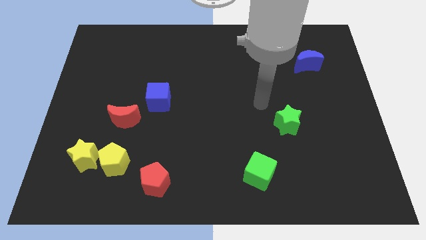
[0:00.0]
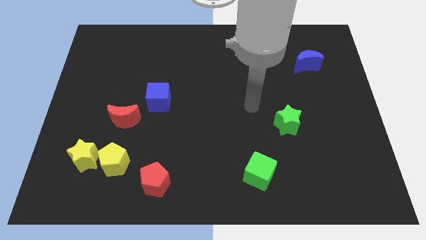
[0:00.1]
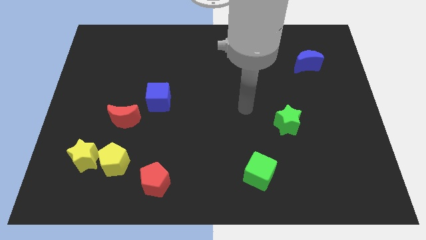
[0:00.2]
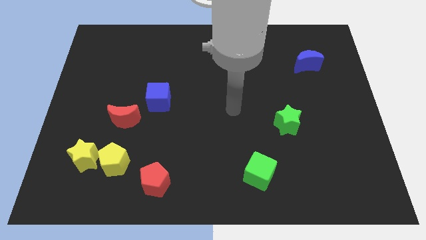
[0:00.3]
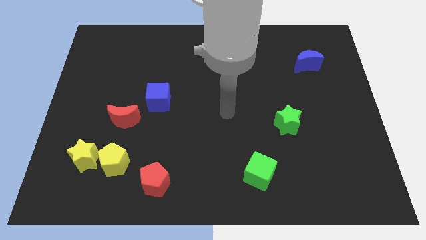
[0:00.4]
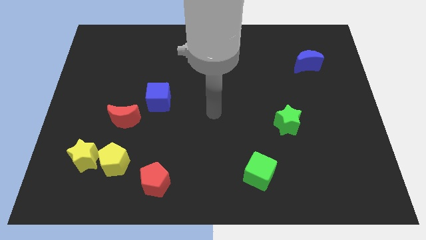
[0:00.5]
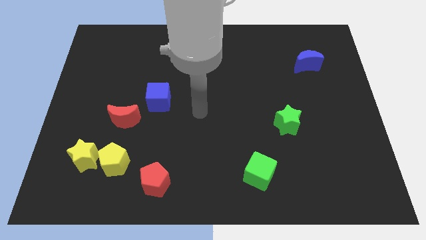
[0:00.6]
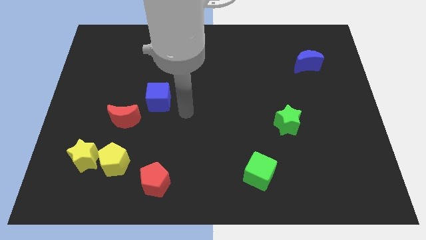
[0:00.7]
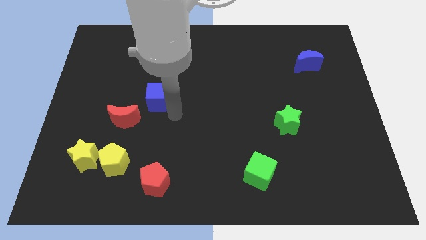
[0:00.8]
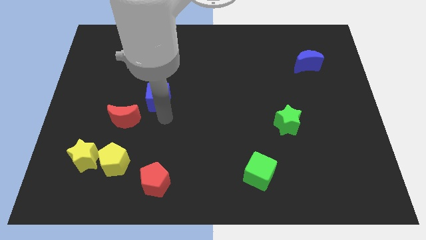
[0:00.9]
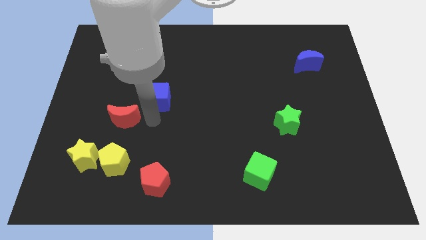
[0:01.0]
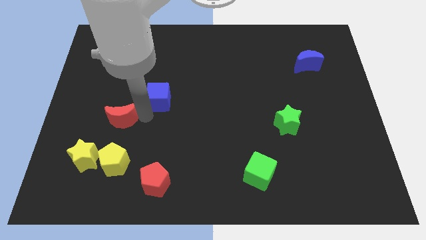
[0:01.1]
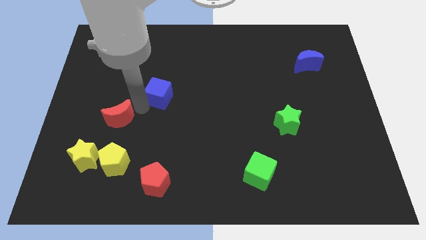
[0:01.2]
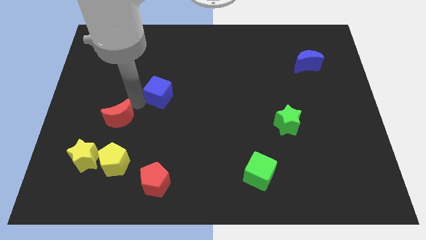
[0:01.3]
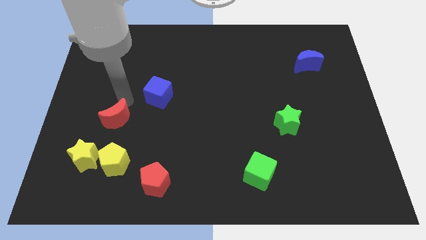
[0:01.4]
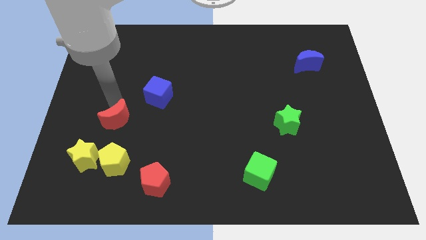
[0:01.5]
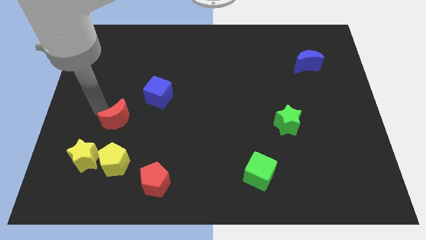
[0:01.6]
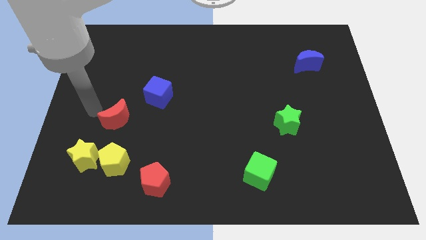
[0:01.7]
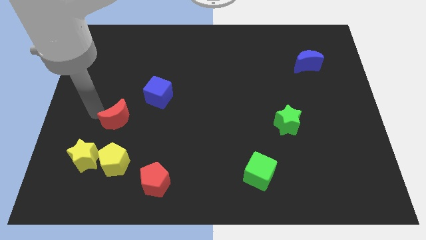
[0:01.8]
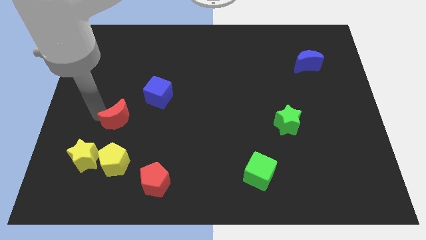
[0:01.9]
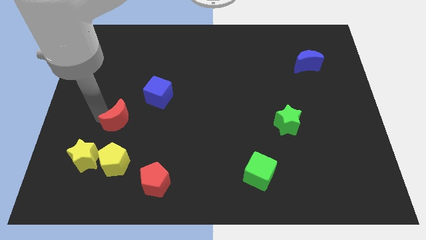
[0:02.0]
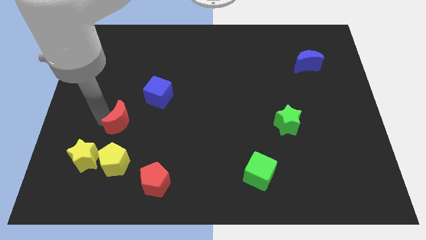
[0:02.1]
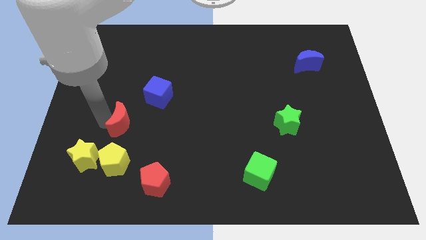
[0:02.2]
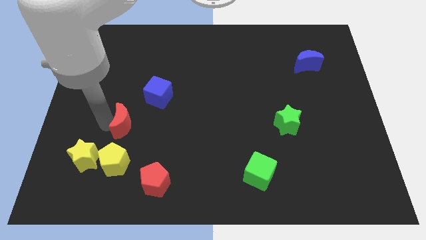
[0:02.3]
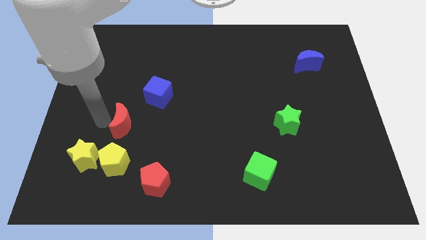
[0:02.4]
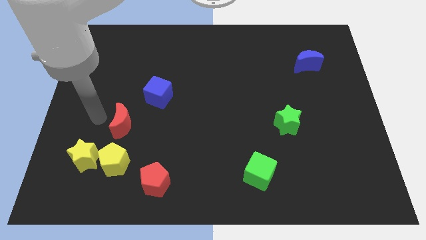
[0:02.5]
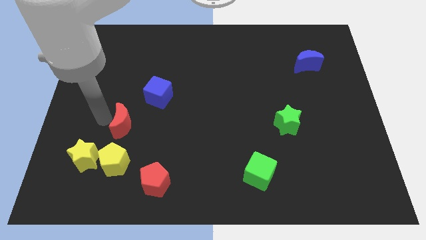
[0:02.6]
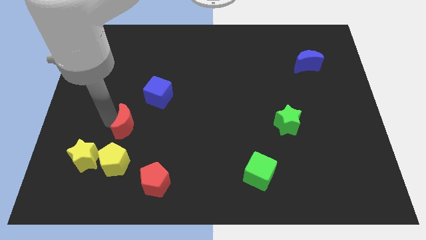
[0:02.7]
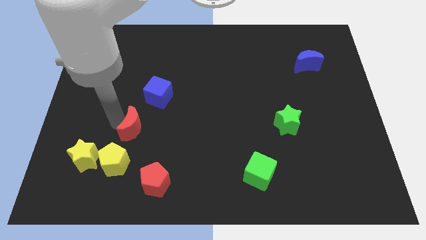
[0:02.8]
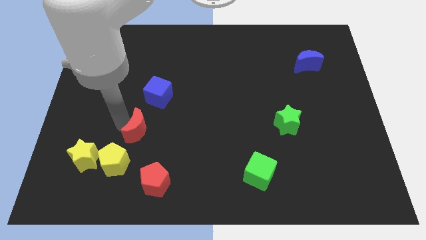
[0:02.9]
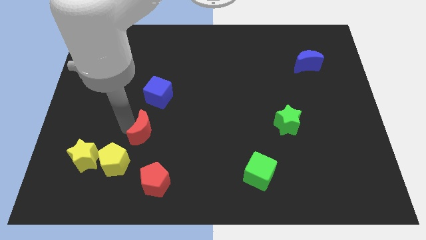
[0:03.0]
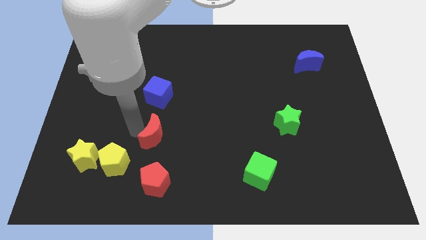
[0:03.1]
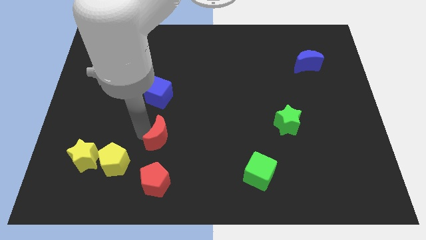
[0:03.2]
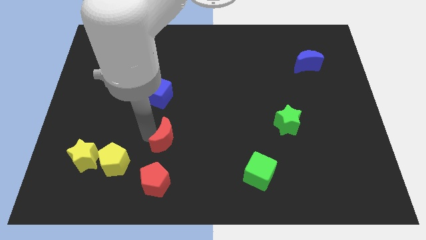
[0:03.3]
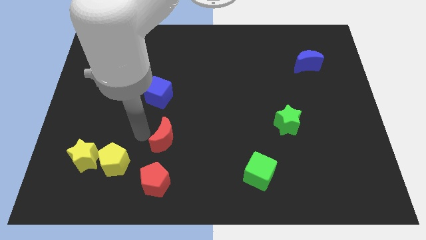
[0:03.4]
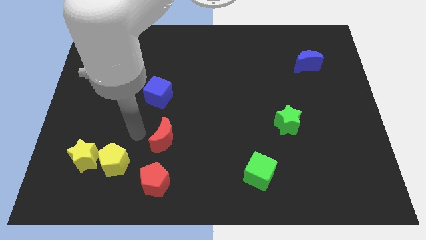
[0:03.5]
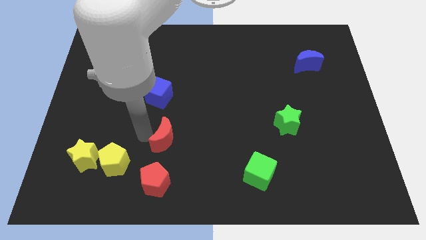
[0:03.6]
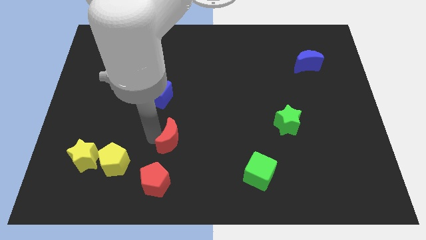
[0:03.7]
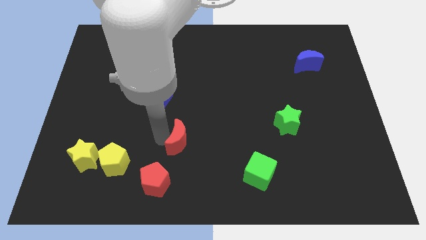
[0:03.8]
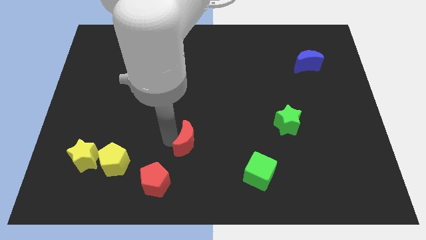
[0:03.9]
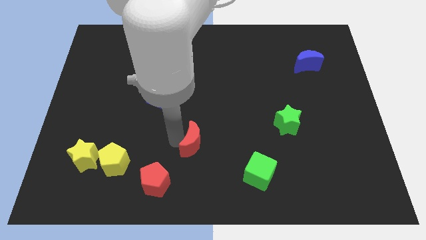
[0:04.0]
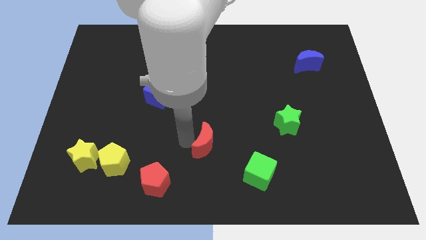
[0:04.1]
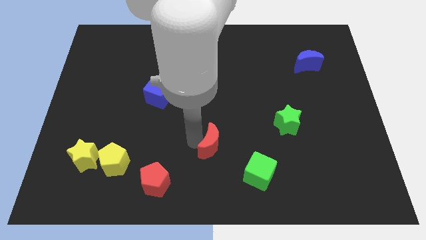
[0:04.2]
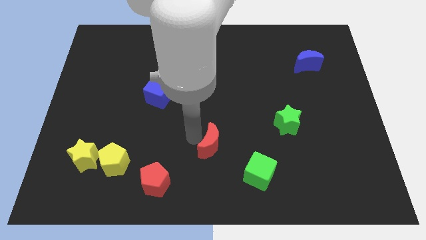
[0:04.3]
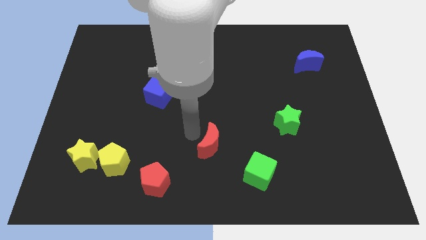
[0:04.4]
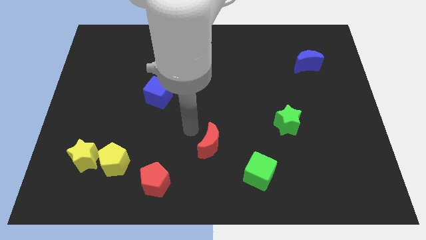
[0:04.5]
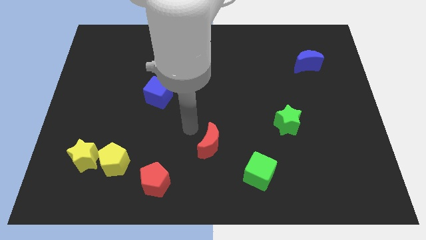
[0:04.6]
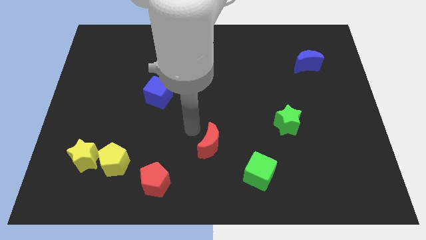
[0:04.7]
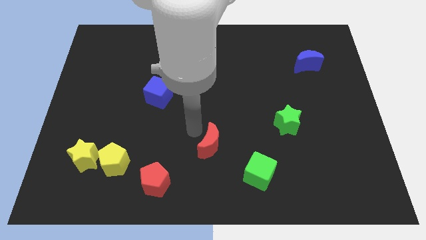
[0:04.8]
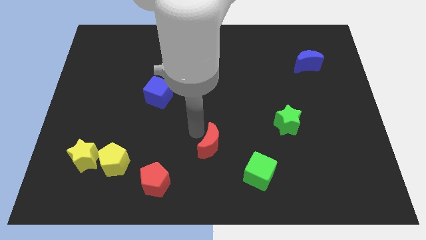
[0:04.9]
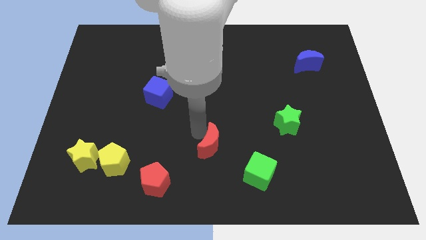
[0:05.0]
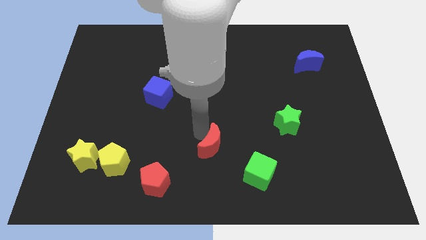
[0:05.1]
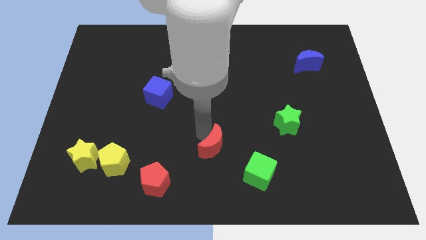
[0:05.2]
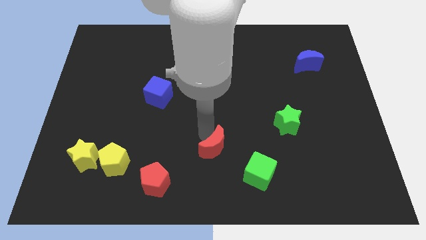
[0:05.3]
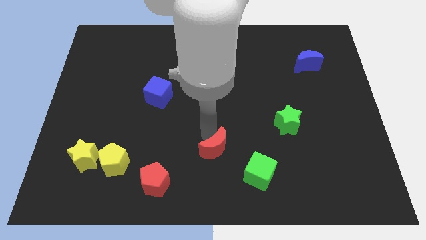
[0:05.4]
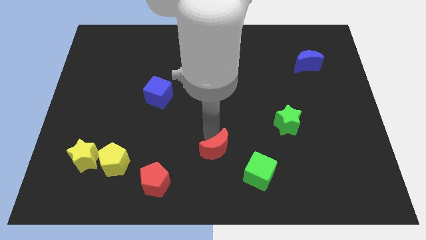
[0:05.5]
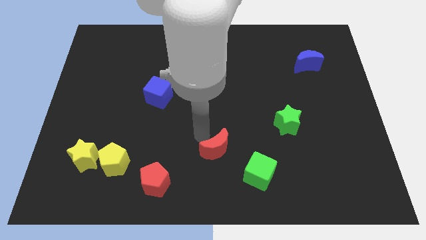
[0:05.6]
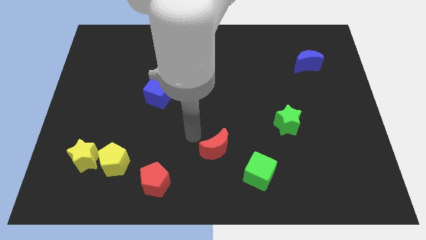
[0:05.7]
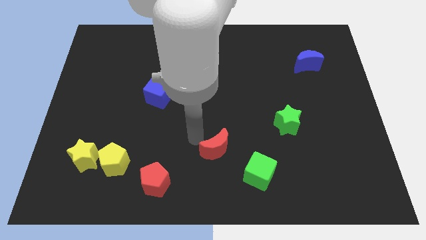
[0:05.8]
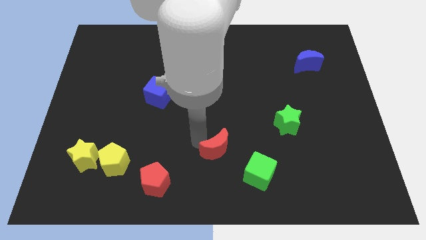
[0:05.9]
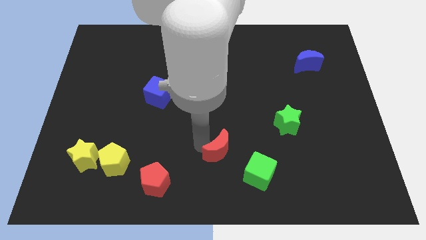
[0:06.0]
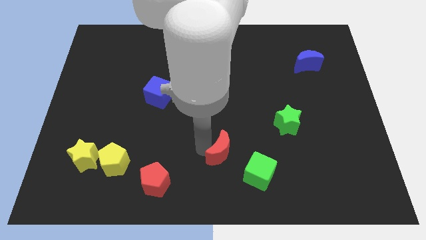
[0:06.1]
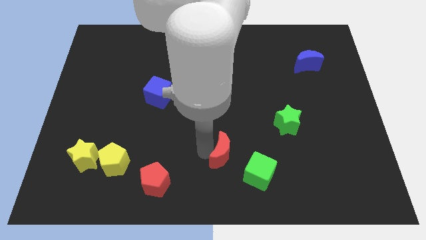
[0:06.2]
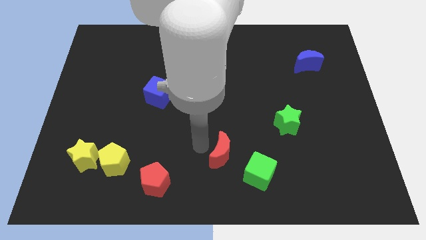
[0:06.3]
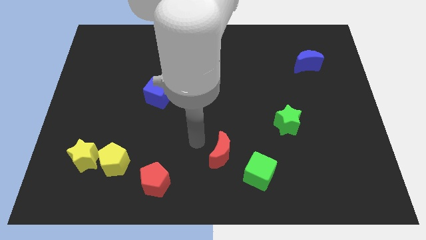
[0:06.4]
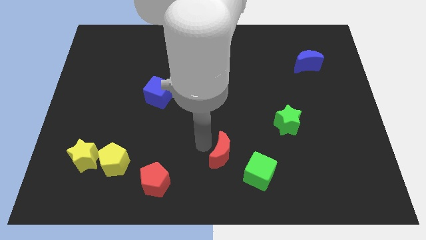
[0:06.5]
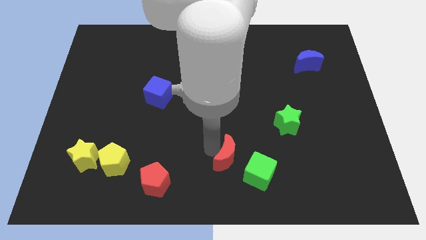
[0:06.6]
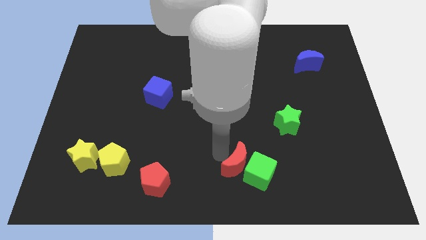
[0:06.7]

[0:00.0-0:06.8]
slide the red moon to the green cube

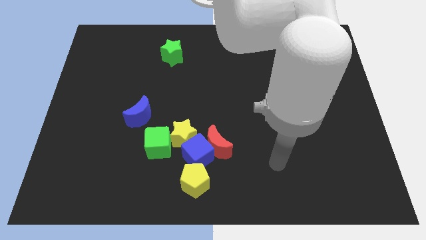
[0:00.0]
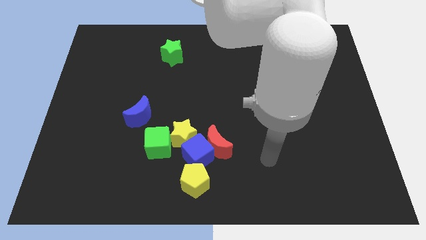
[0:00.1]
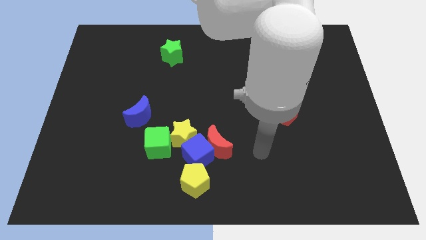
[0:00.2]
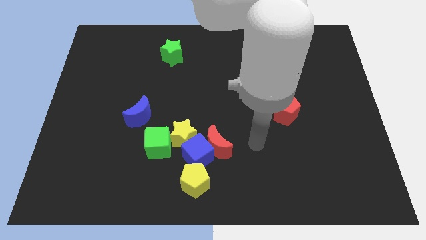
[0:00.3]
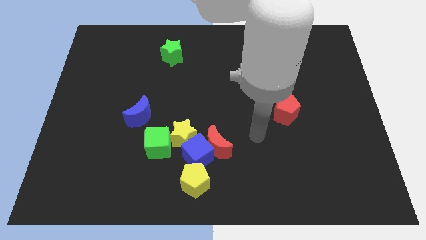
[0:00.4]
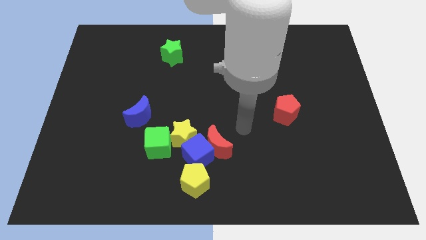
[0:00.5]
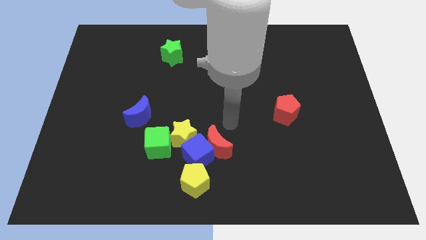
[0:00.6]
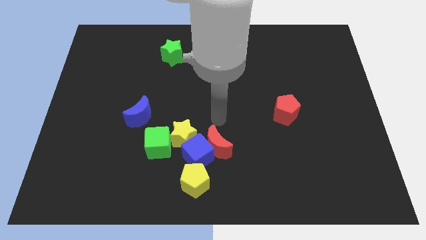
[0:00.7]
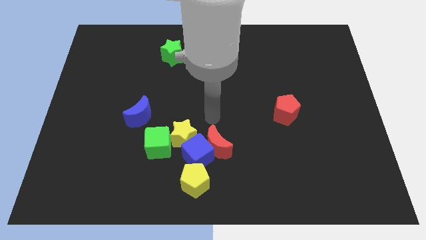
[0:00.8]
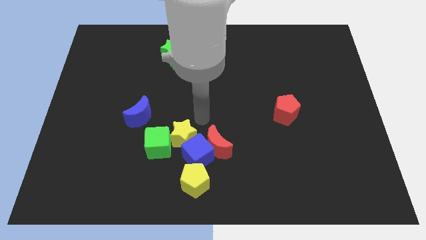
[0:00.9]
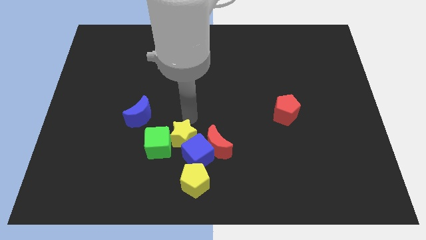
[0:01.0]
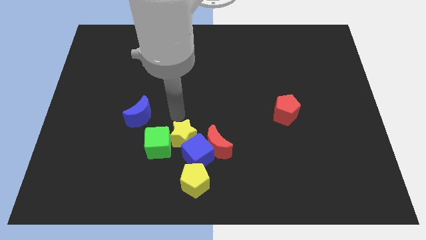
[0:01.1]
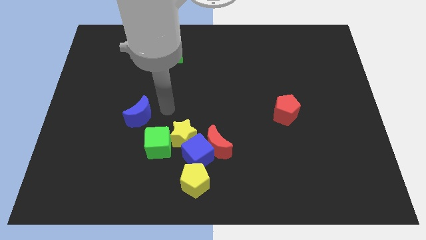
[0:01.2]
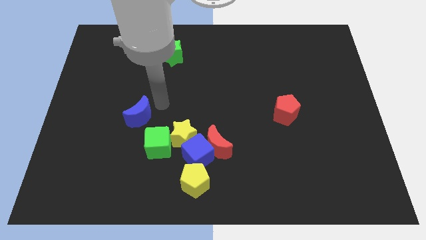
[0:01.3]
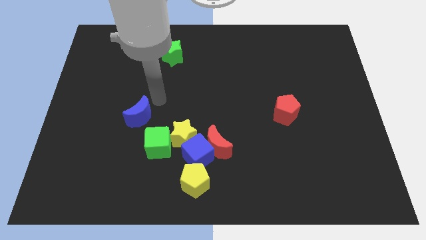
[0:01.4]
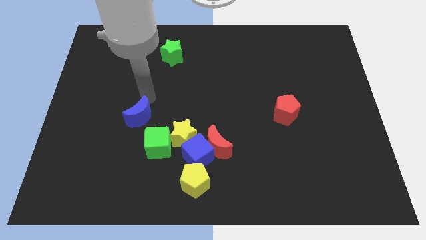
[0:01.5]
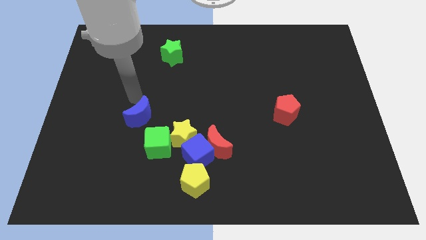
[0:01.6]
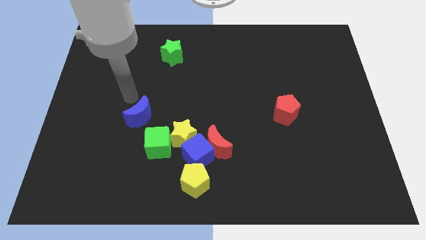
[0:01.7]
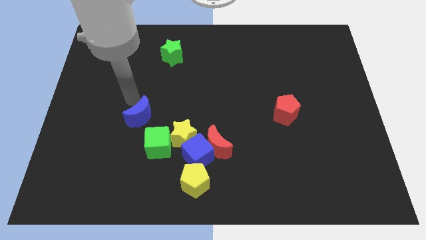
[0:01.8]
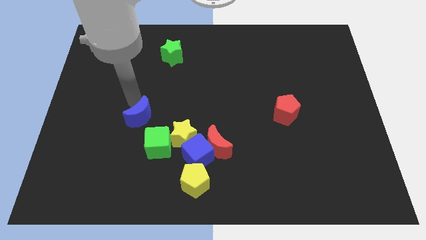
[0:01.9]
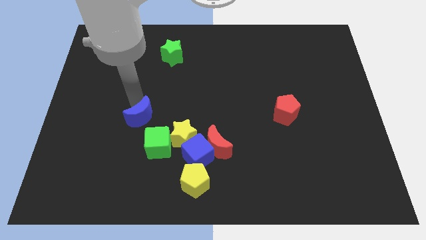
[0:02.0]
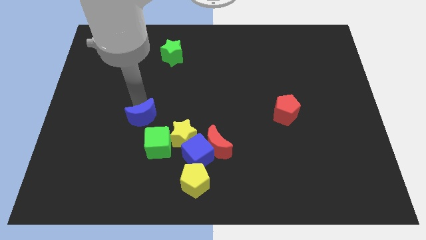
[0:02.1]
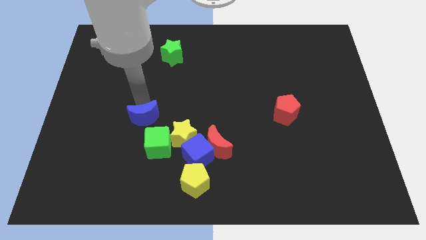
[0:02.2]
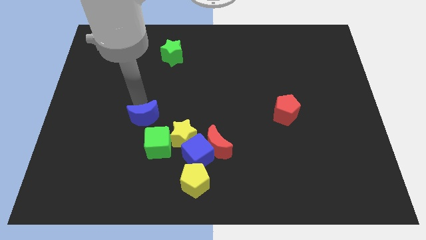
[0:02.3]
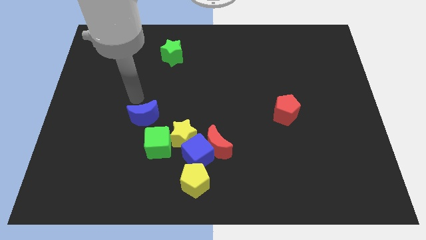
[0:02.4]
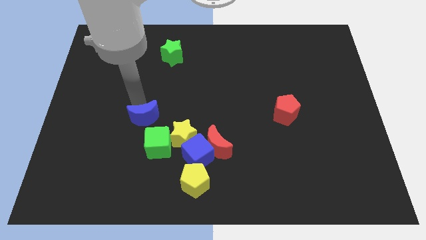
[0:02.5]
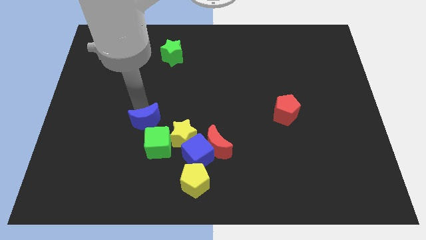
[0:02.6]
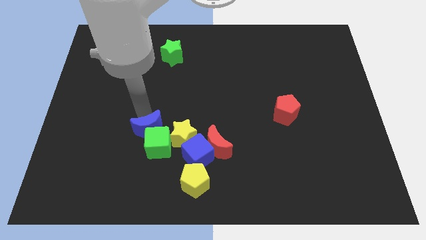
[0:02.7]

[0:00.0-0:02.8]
slide the blue moon to the green cube
